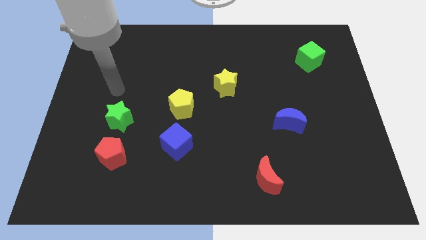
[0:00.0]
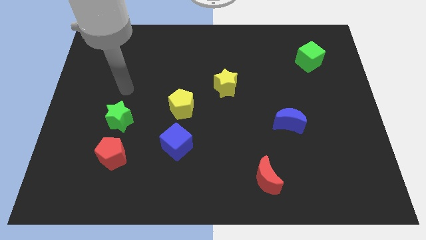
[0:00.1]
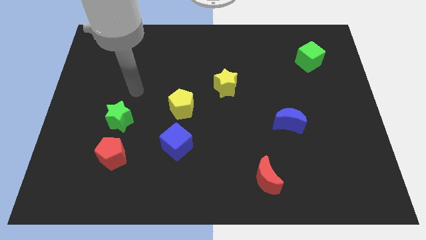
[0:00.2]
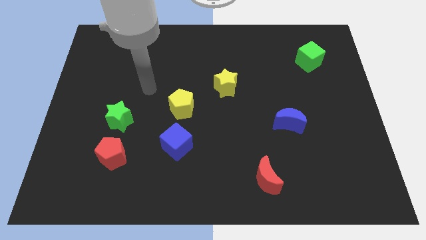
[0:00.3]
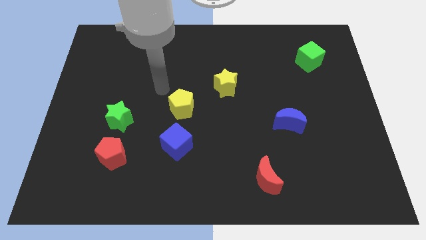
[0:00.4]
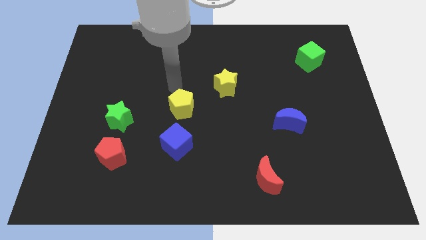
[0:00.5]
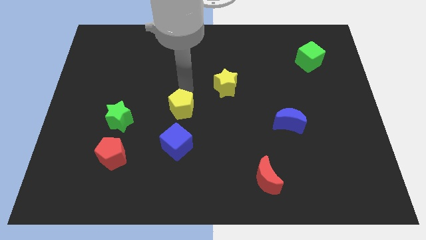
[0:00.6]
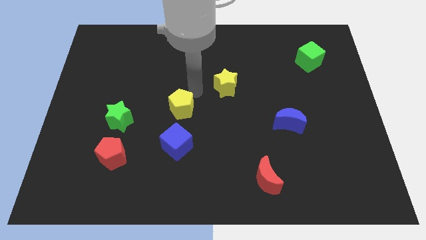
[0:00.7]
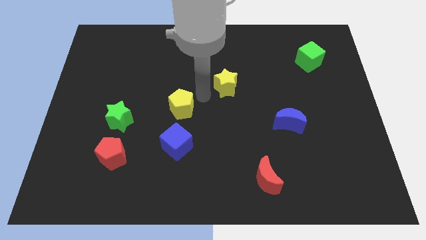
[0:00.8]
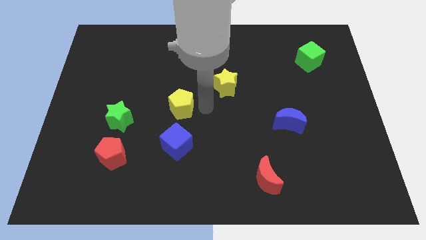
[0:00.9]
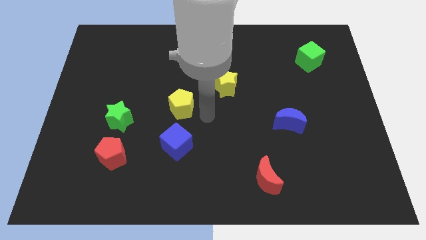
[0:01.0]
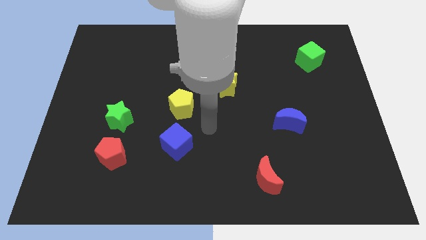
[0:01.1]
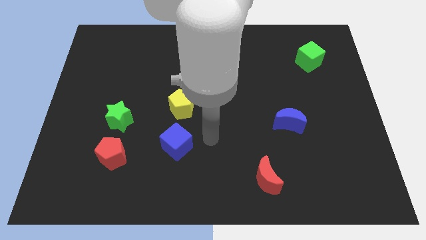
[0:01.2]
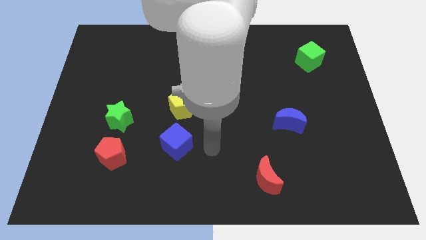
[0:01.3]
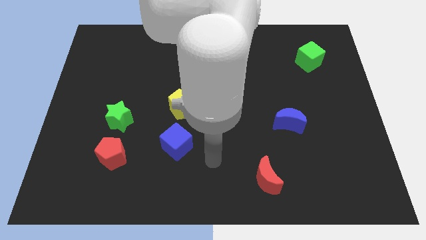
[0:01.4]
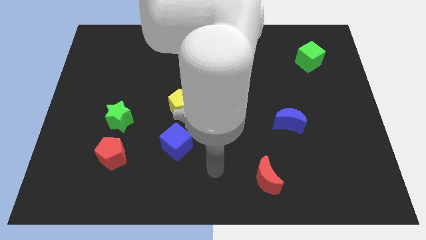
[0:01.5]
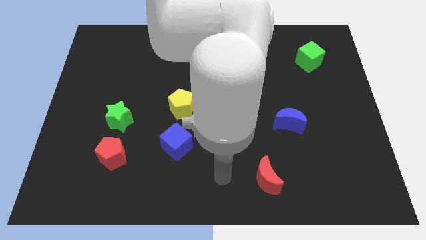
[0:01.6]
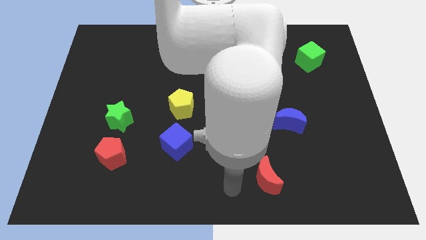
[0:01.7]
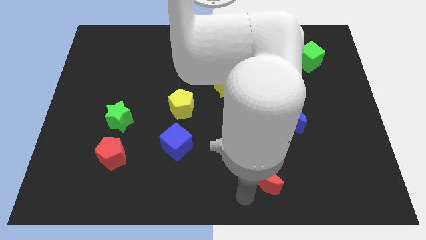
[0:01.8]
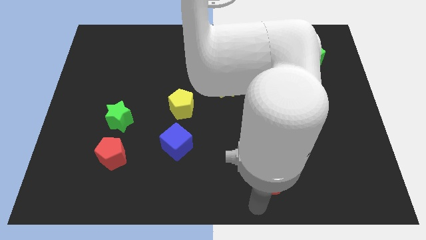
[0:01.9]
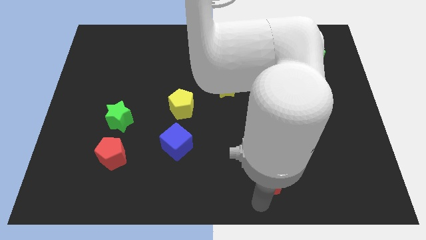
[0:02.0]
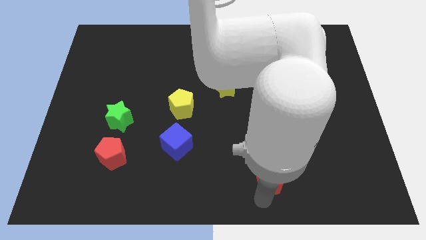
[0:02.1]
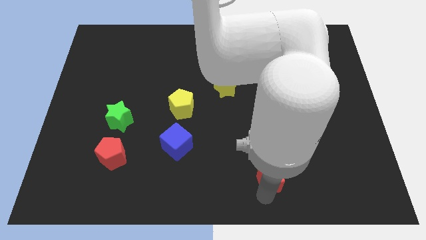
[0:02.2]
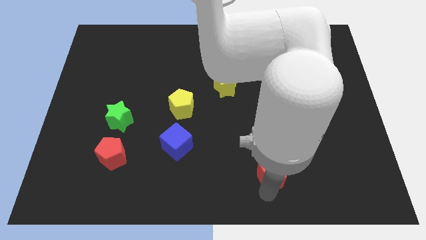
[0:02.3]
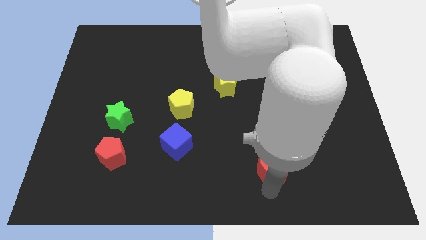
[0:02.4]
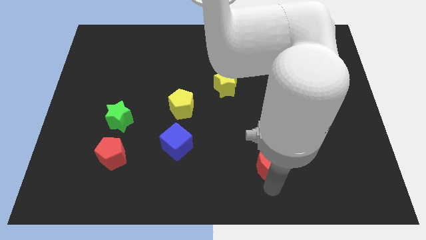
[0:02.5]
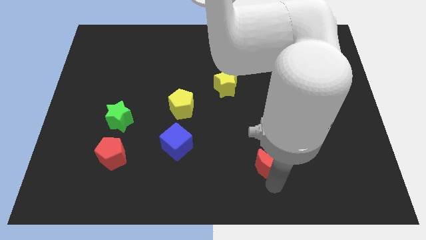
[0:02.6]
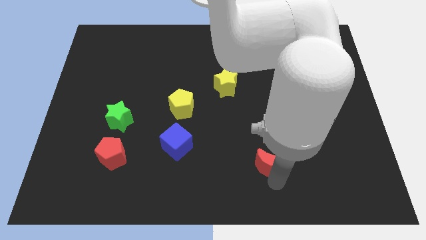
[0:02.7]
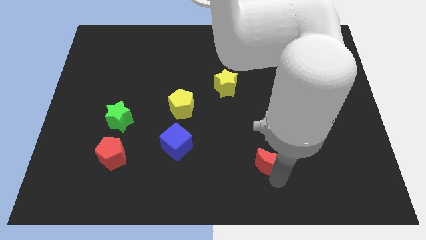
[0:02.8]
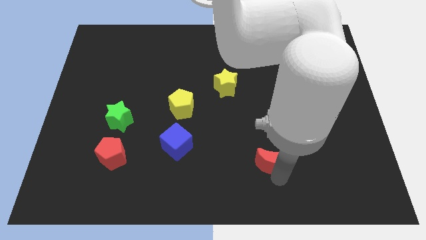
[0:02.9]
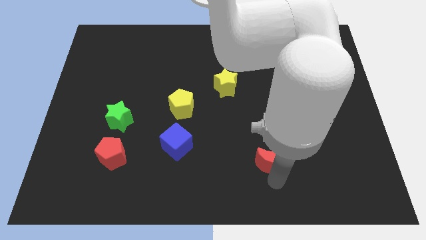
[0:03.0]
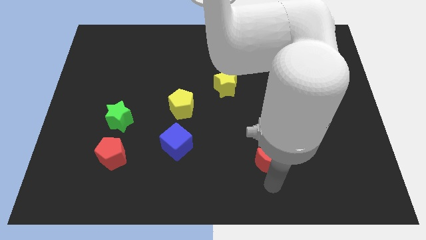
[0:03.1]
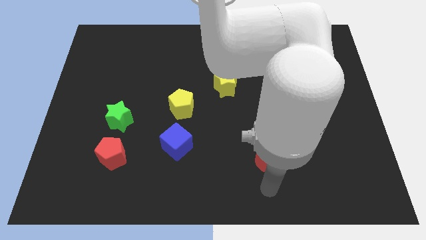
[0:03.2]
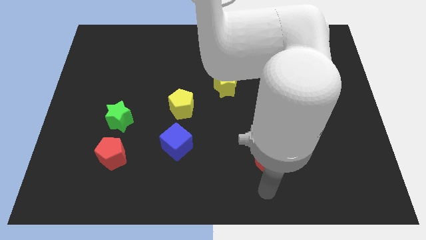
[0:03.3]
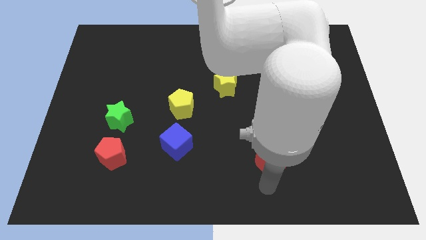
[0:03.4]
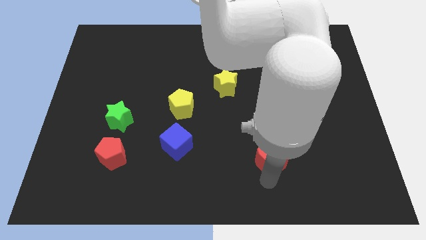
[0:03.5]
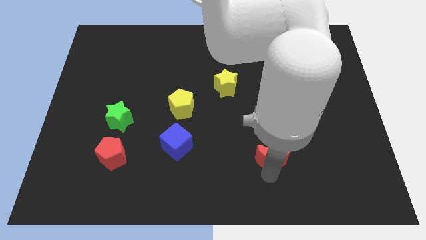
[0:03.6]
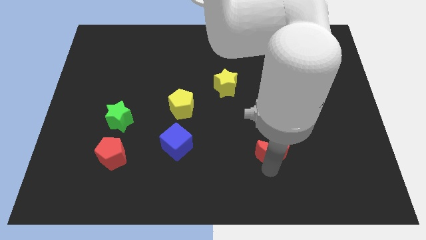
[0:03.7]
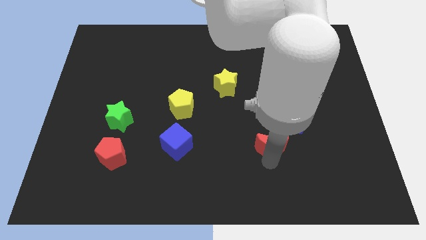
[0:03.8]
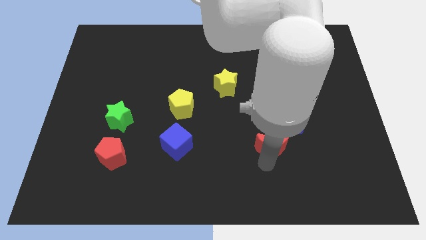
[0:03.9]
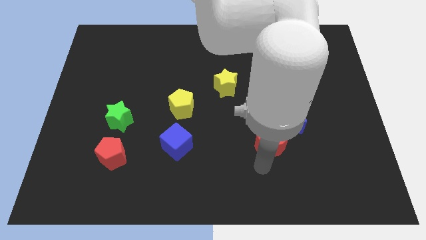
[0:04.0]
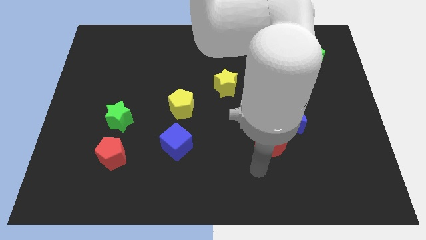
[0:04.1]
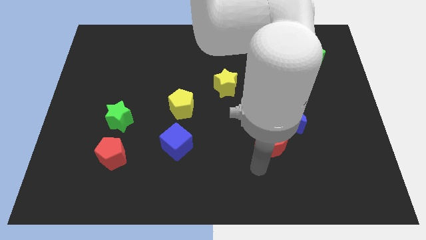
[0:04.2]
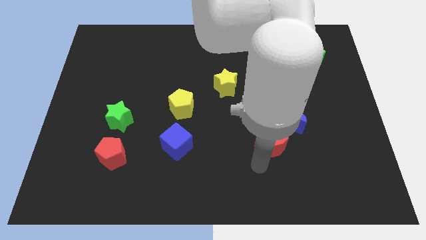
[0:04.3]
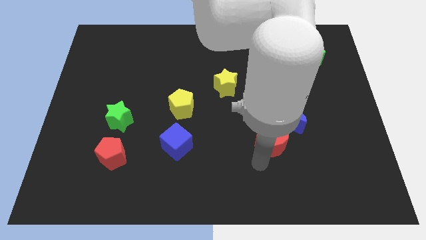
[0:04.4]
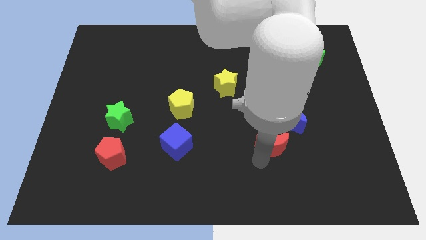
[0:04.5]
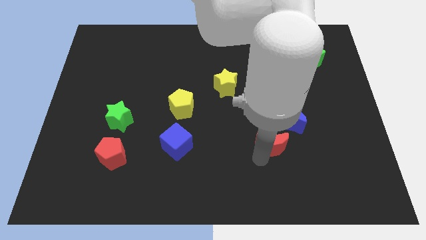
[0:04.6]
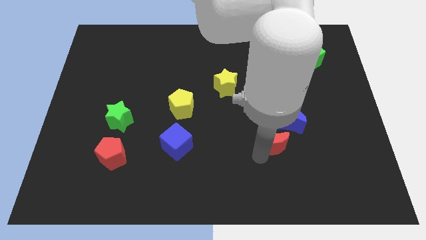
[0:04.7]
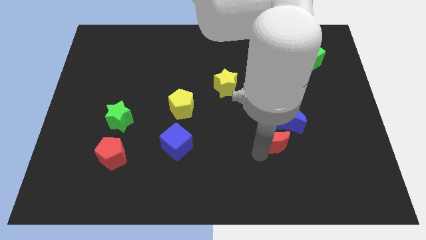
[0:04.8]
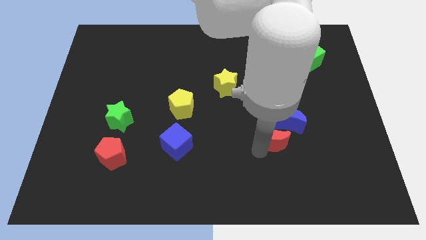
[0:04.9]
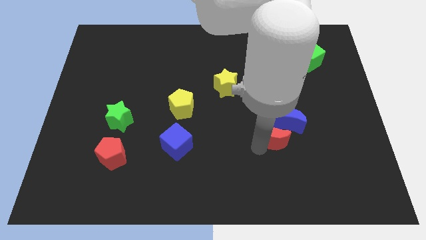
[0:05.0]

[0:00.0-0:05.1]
move the red moon close to the blue moon

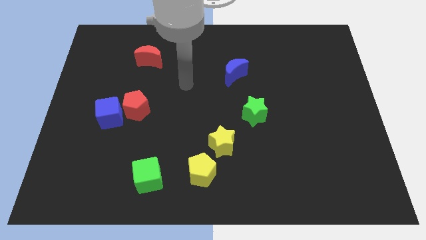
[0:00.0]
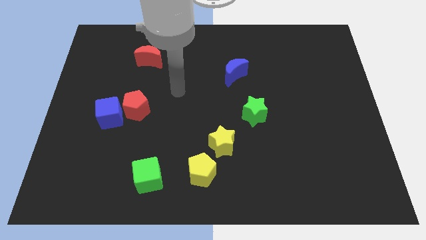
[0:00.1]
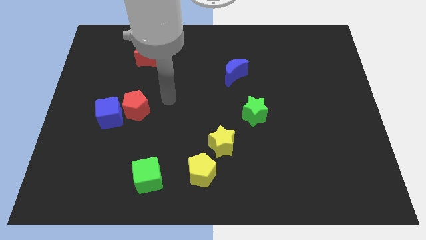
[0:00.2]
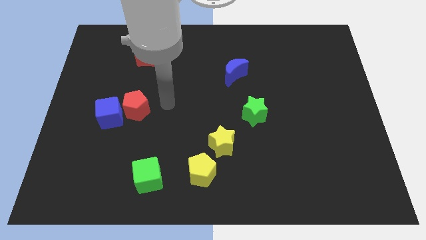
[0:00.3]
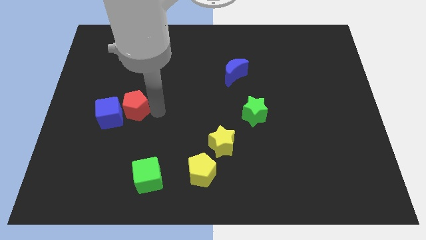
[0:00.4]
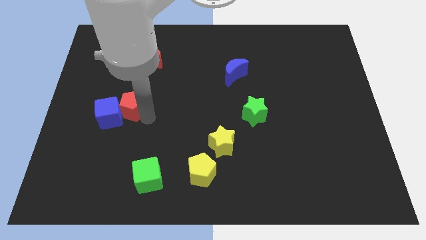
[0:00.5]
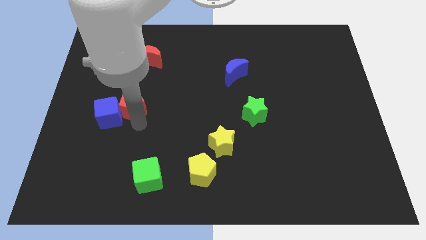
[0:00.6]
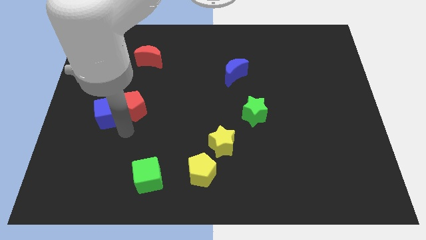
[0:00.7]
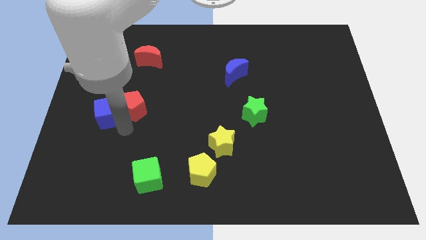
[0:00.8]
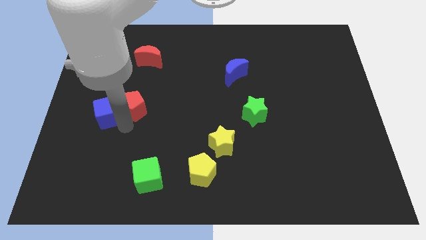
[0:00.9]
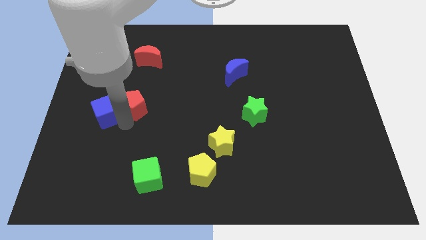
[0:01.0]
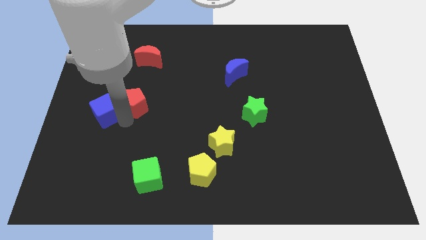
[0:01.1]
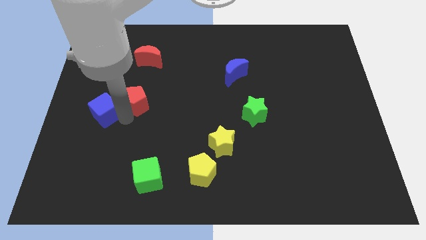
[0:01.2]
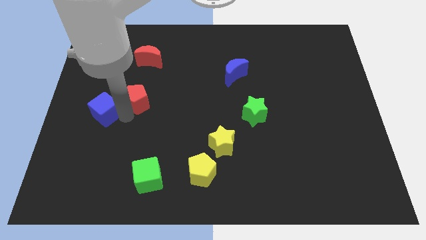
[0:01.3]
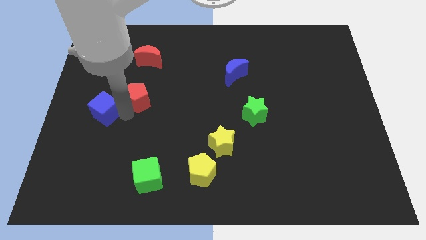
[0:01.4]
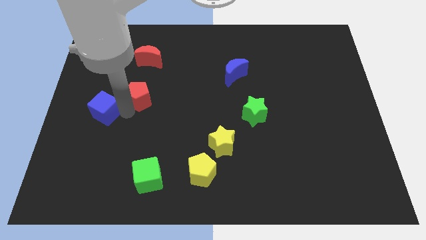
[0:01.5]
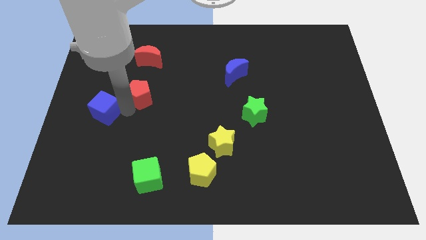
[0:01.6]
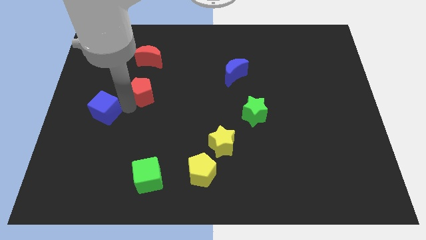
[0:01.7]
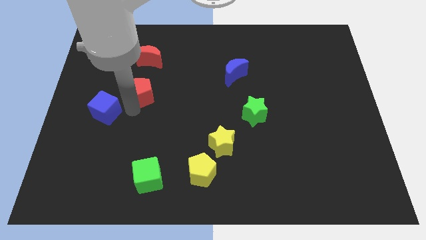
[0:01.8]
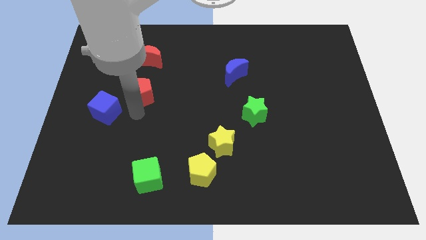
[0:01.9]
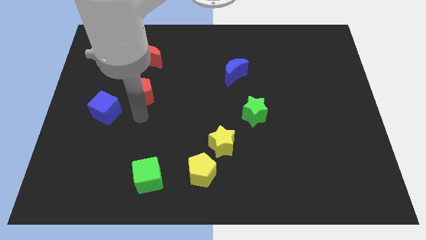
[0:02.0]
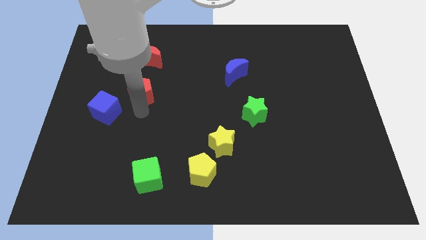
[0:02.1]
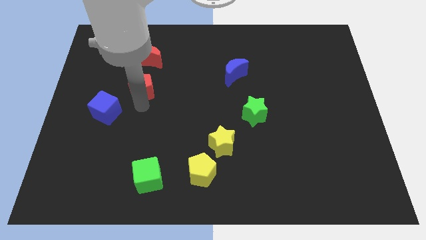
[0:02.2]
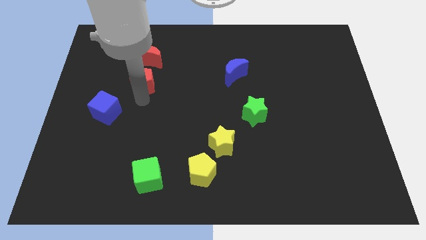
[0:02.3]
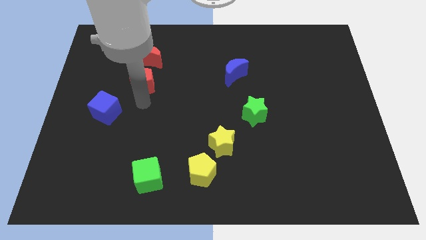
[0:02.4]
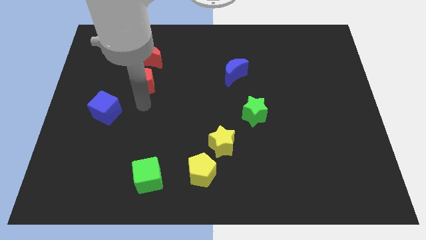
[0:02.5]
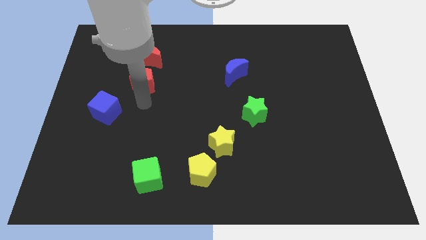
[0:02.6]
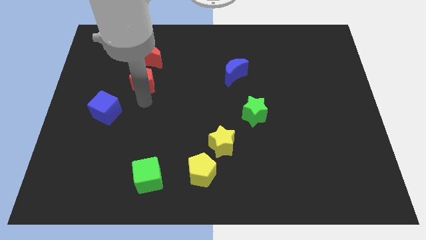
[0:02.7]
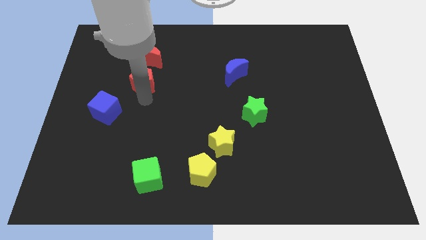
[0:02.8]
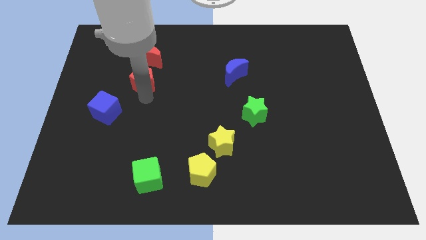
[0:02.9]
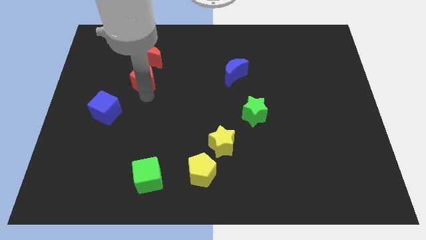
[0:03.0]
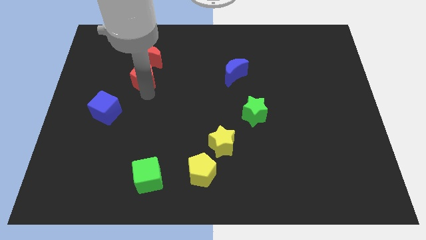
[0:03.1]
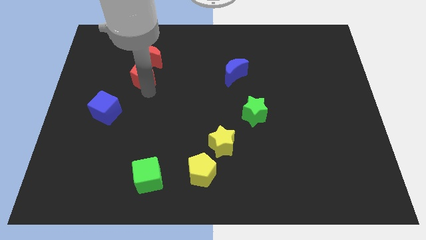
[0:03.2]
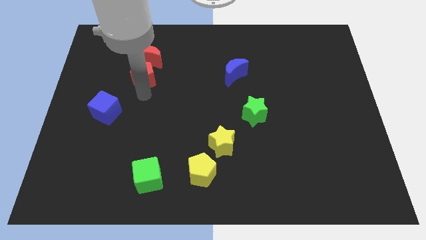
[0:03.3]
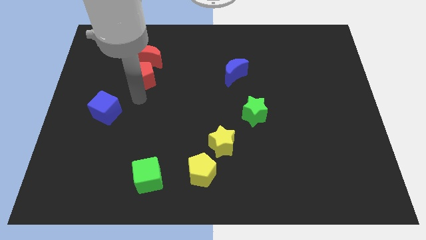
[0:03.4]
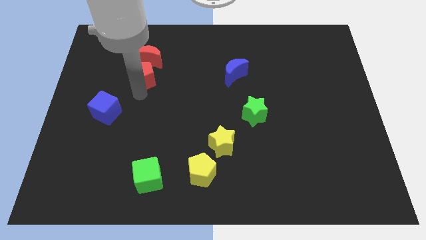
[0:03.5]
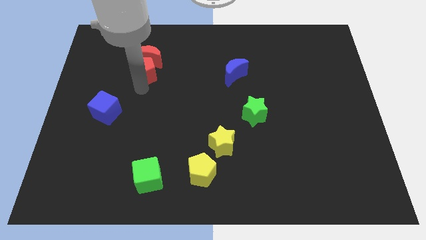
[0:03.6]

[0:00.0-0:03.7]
slide the red pentagon next to the red moon
